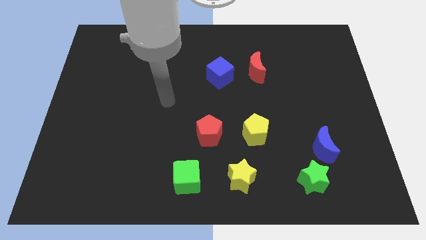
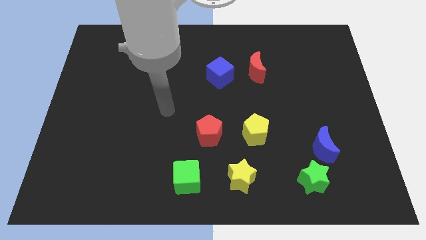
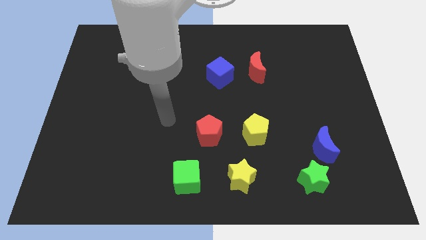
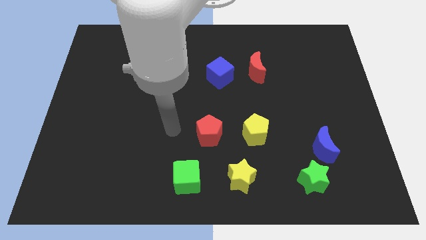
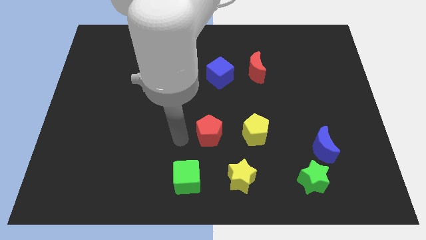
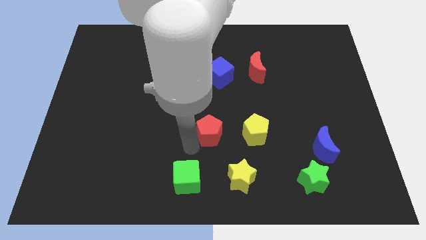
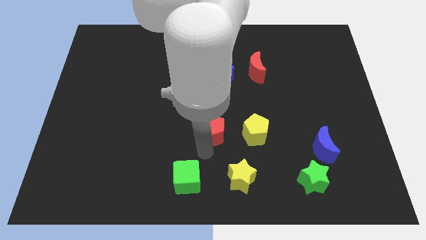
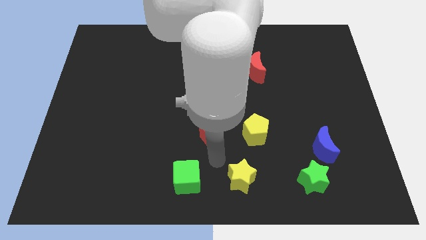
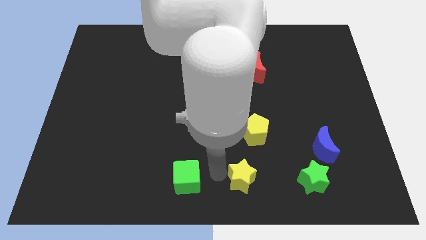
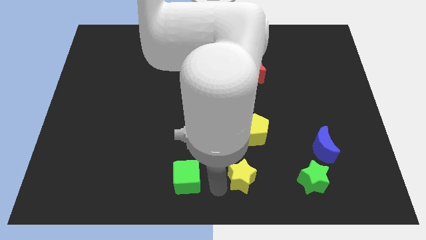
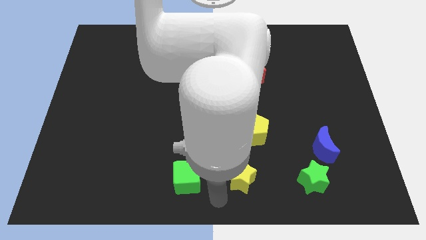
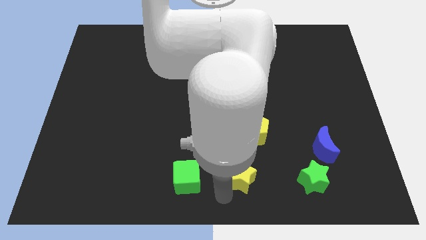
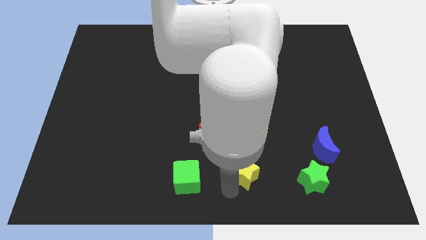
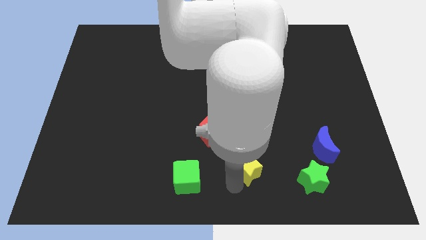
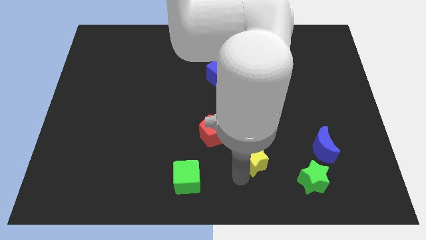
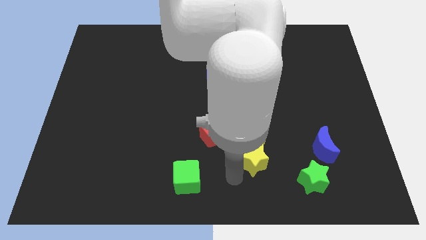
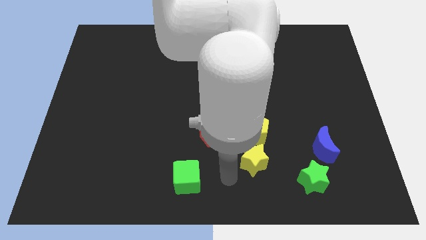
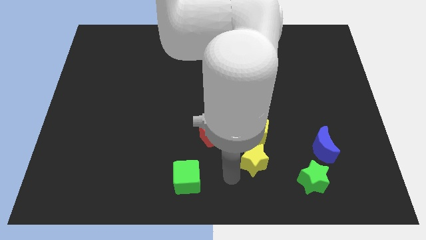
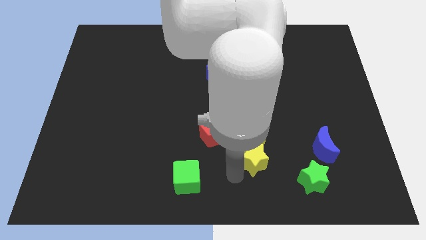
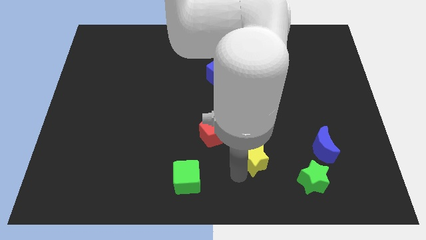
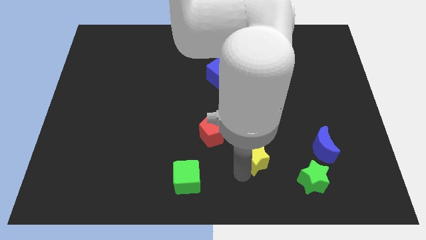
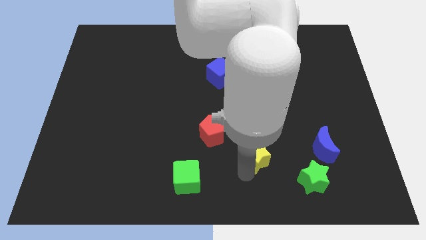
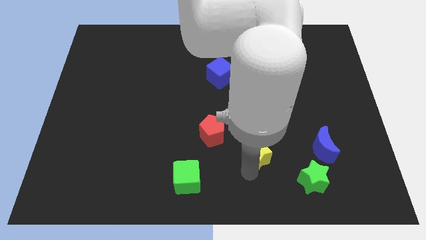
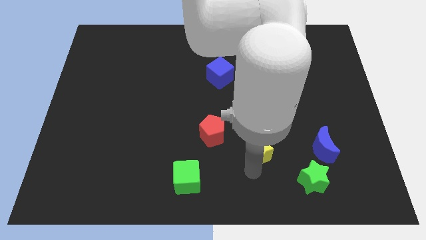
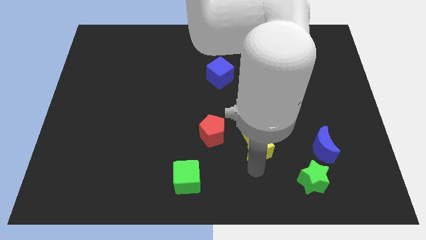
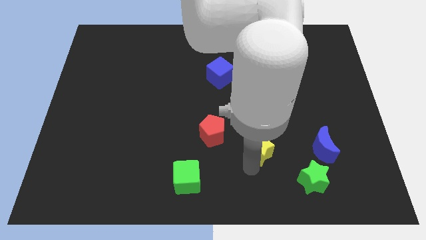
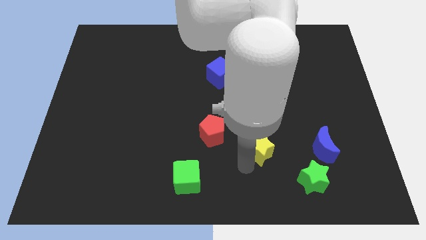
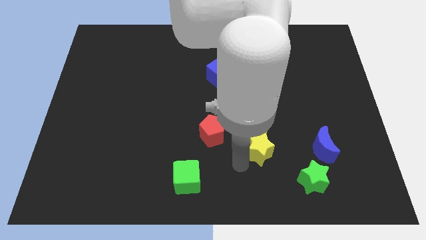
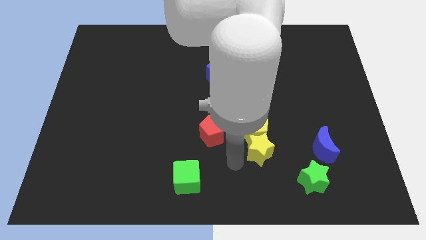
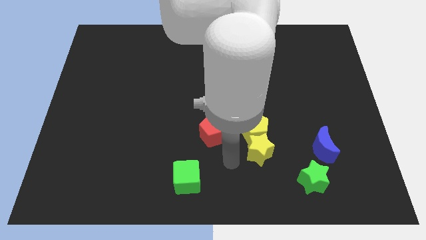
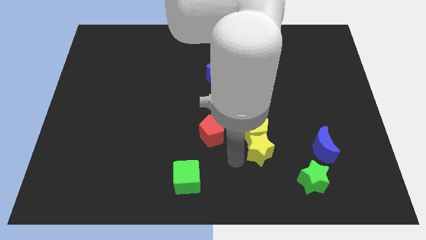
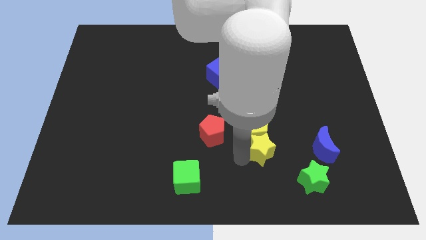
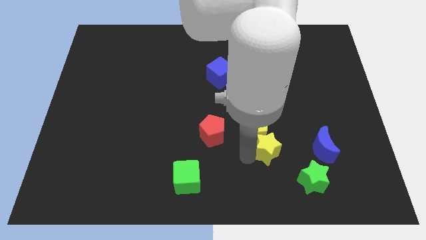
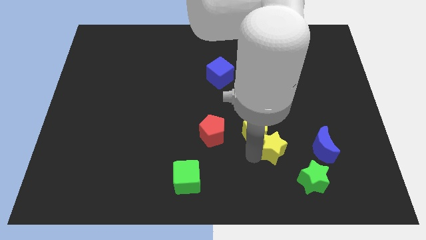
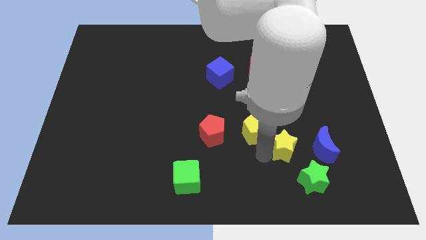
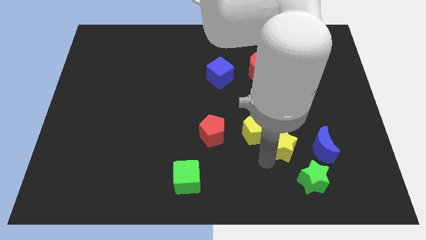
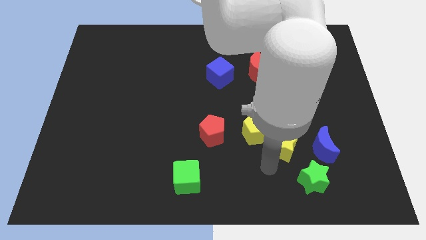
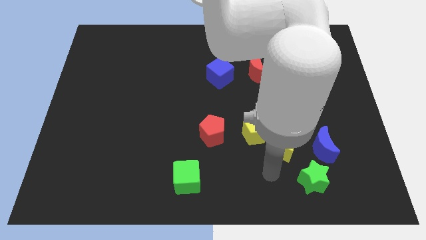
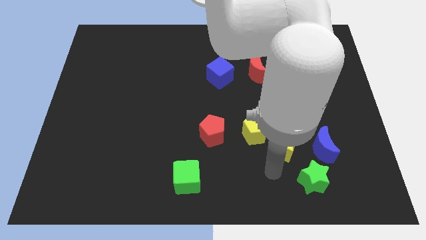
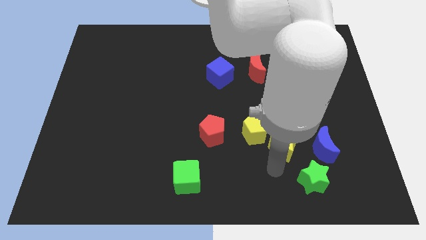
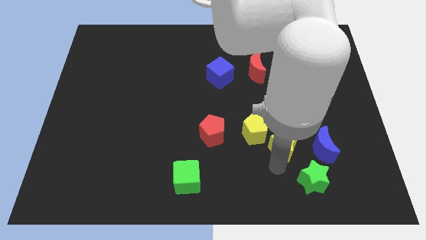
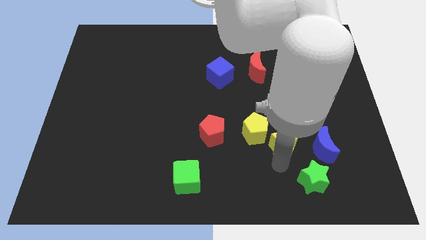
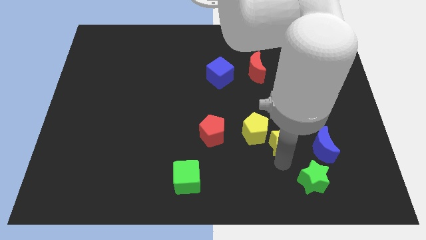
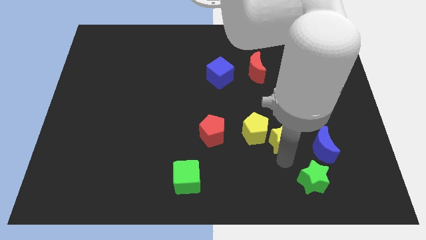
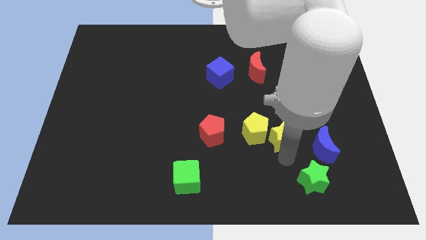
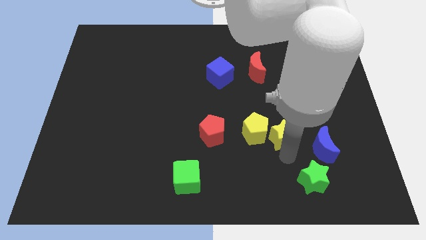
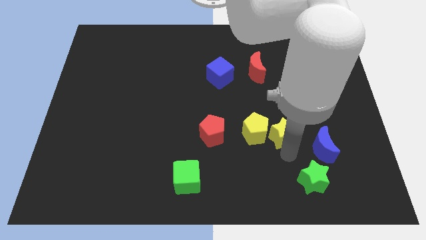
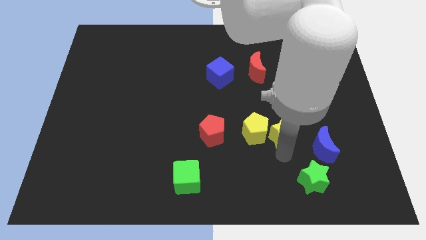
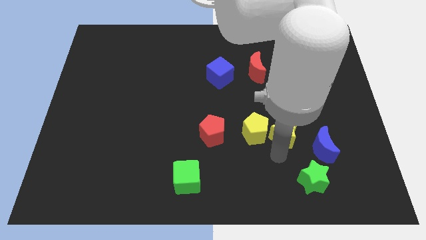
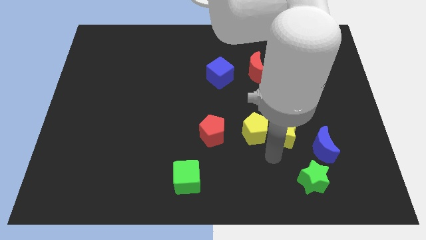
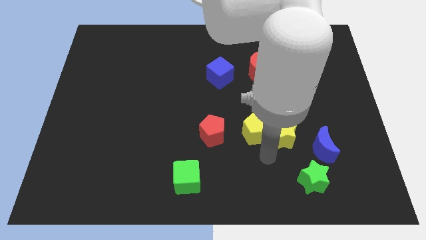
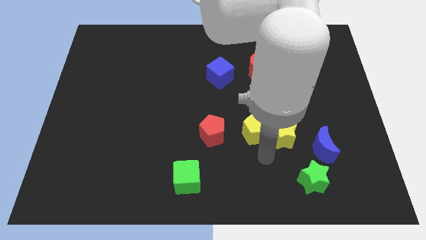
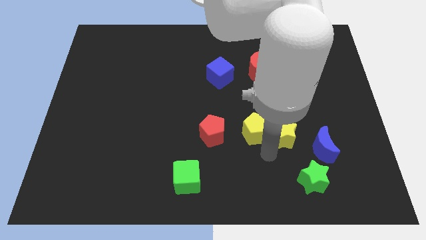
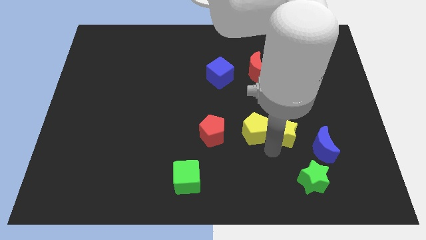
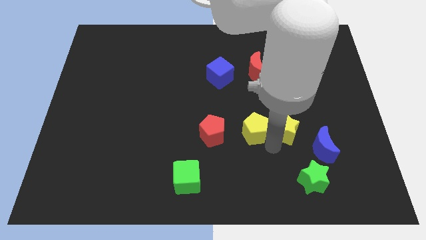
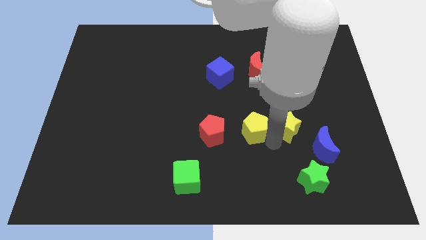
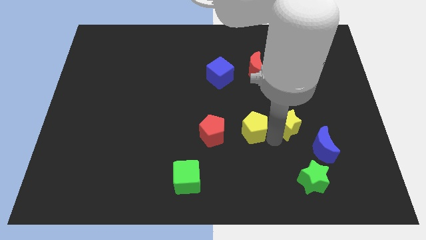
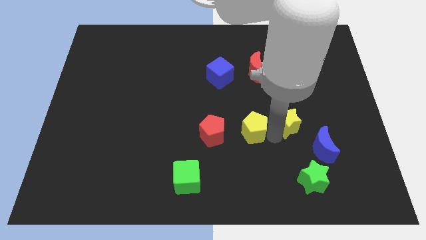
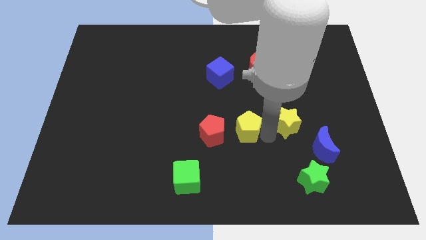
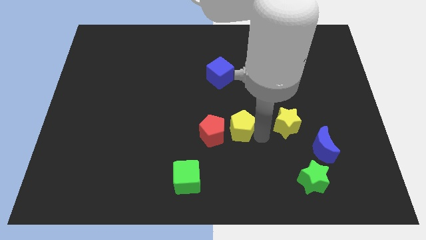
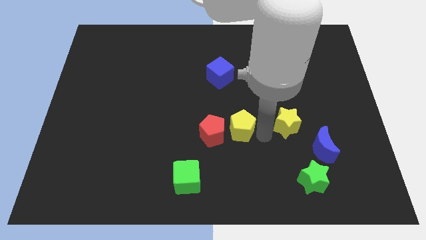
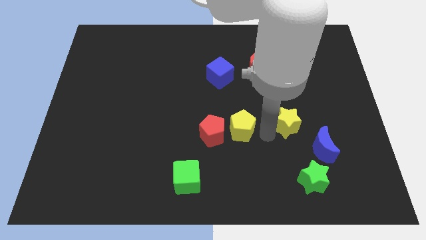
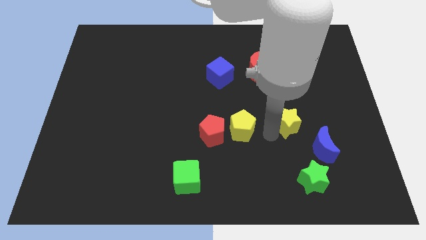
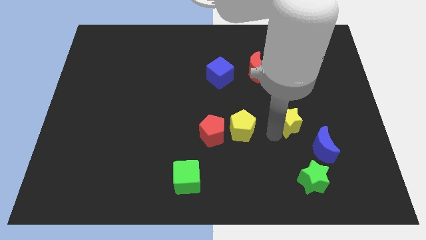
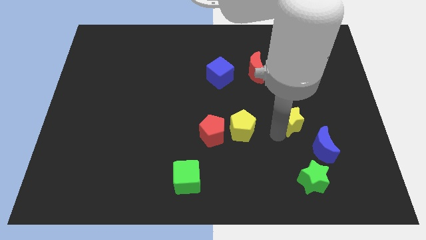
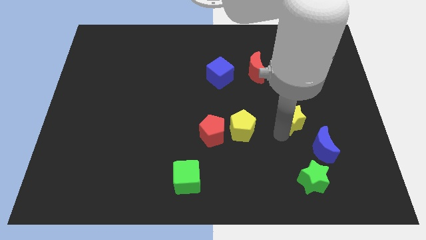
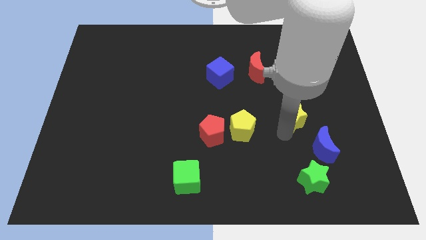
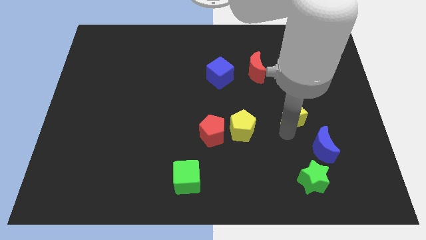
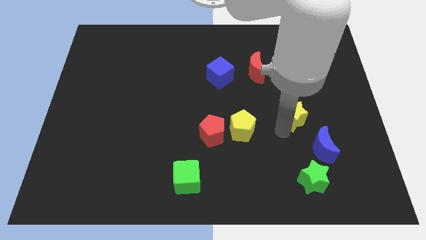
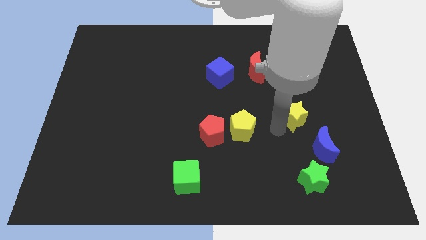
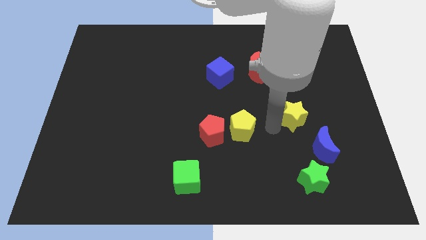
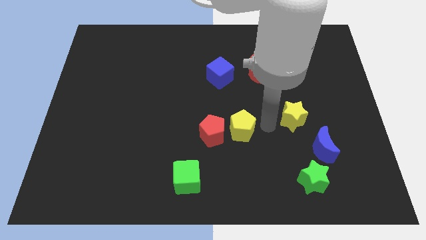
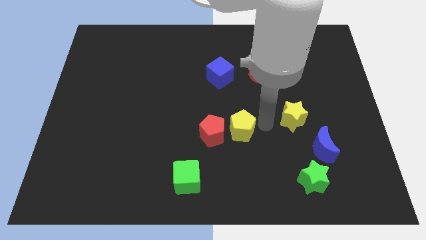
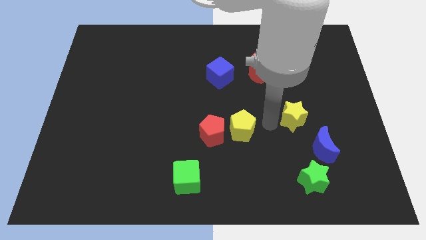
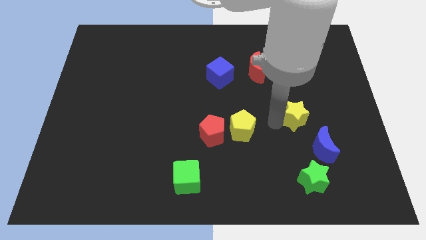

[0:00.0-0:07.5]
push the yellow star diagonally up and right

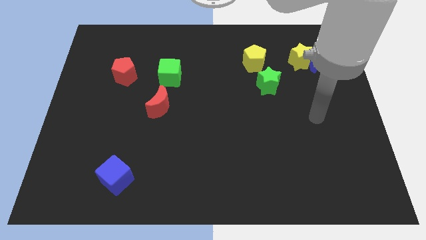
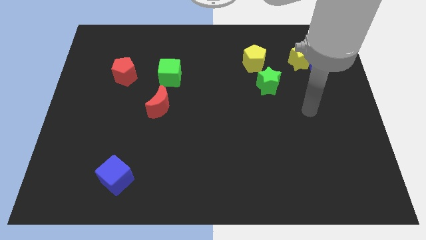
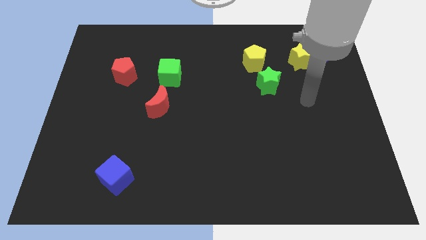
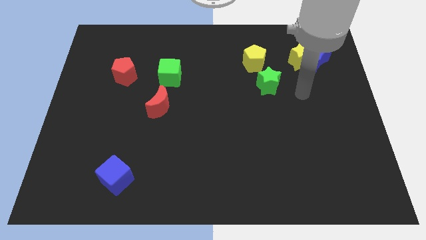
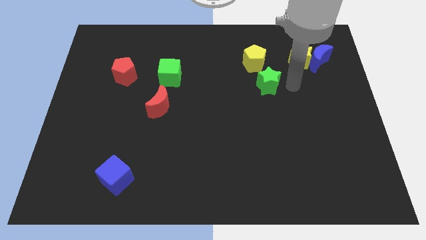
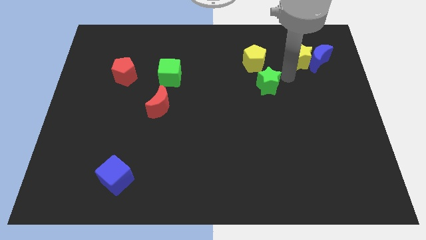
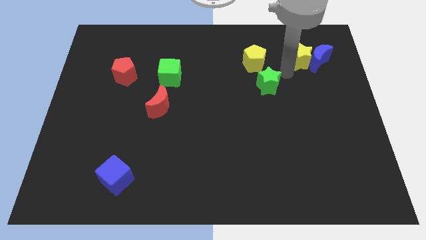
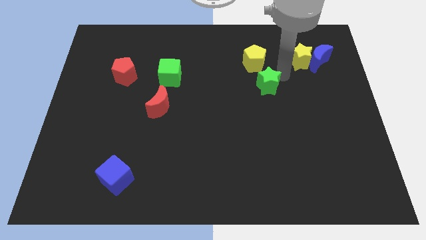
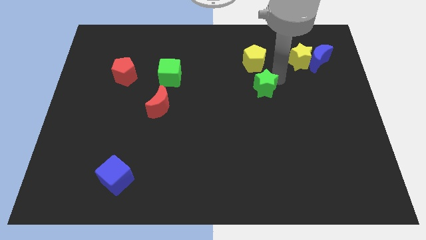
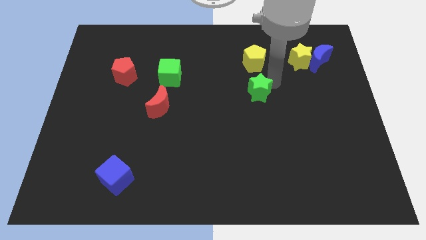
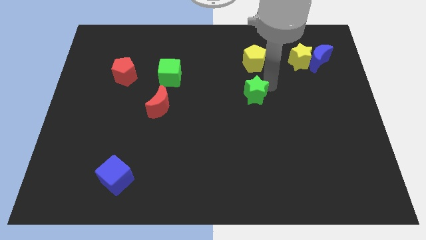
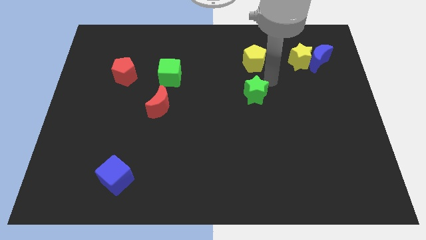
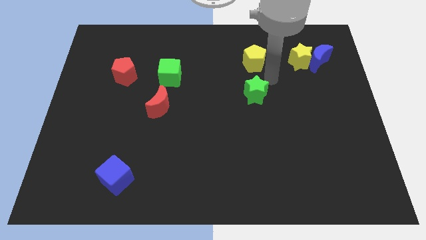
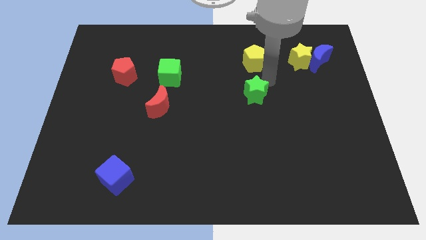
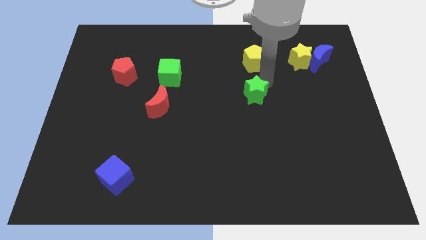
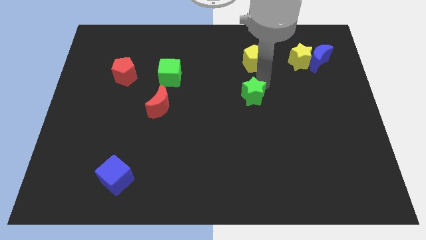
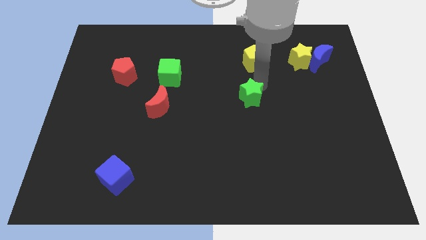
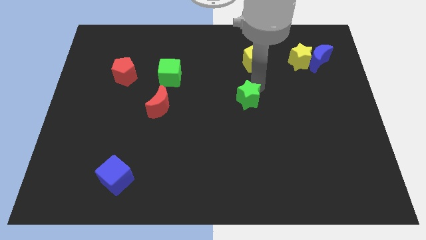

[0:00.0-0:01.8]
slightly move the green star down and then left
